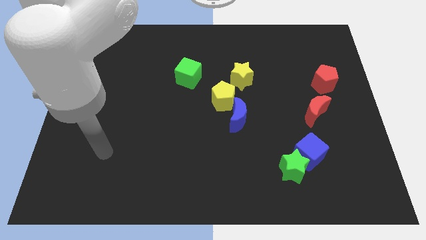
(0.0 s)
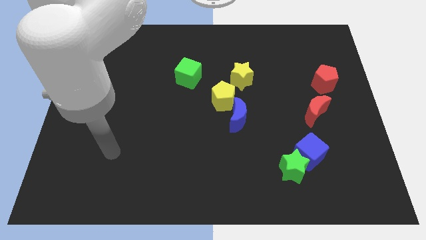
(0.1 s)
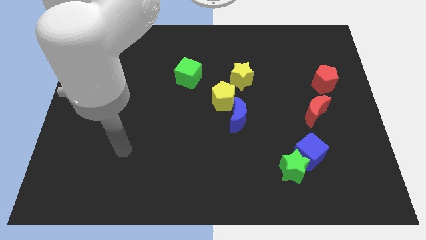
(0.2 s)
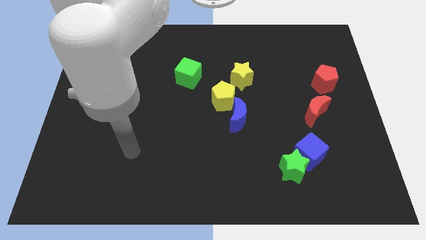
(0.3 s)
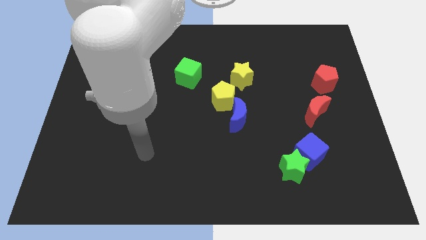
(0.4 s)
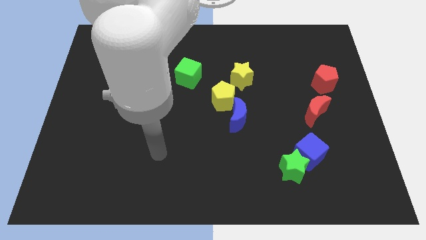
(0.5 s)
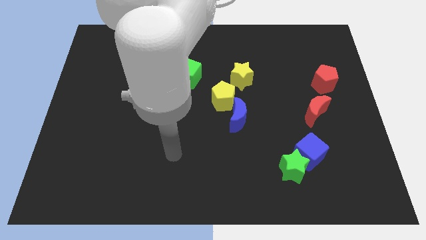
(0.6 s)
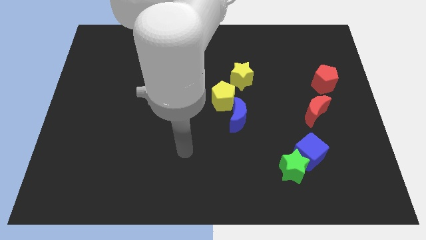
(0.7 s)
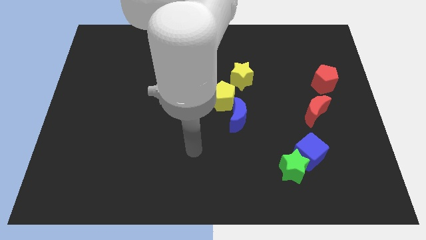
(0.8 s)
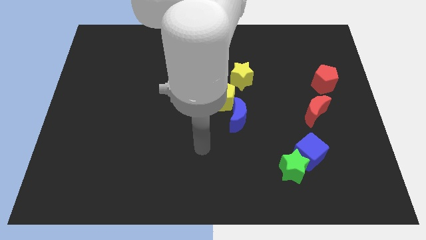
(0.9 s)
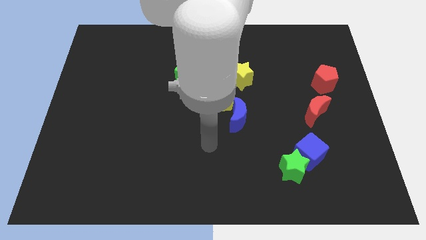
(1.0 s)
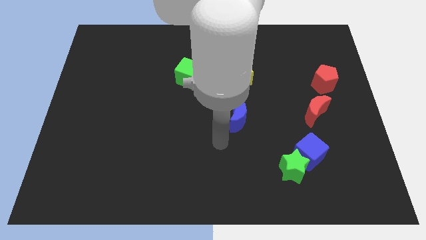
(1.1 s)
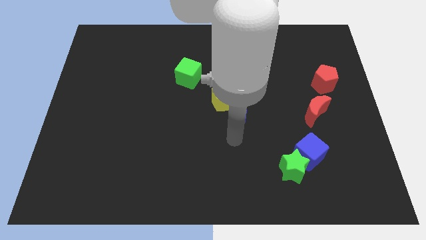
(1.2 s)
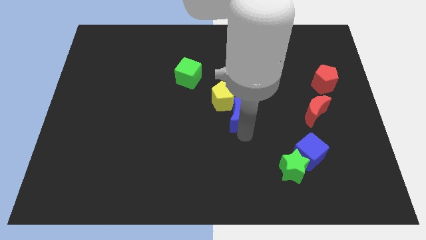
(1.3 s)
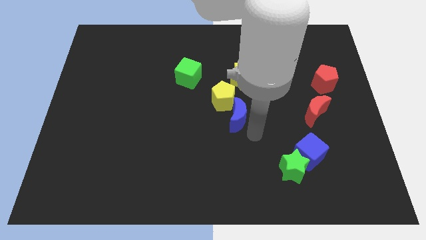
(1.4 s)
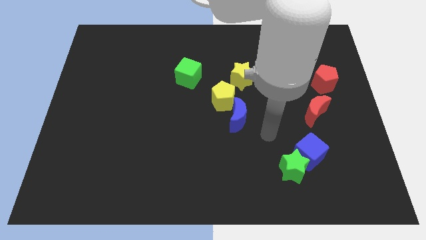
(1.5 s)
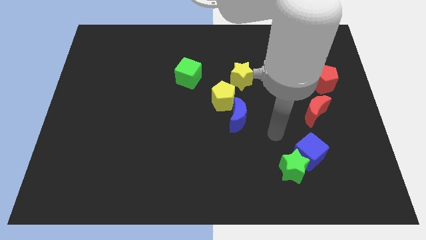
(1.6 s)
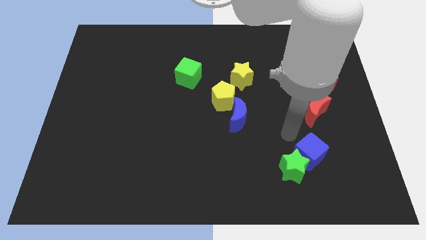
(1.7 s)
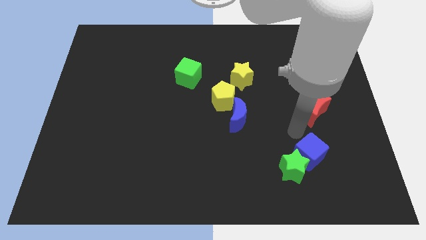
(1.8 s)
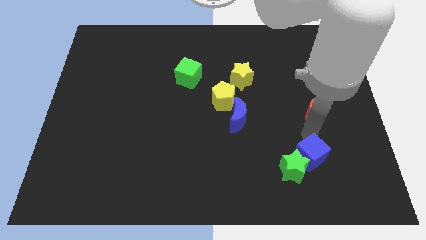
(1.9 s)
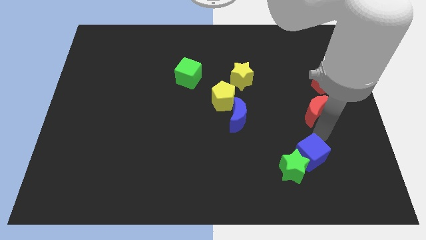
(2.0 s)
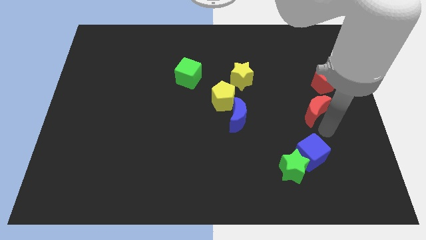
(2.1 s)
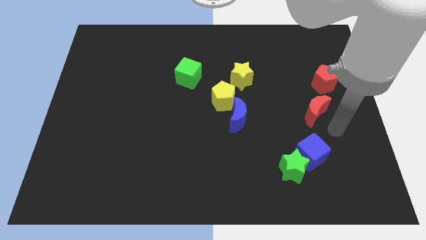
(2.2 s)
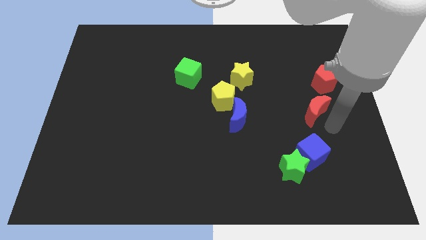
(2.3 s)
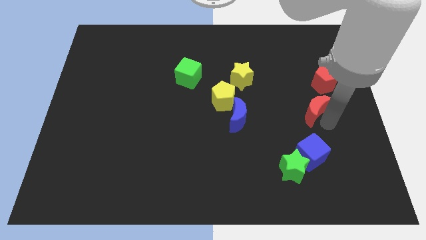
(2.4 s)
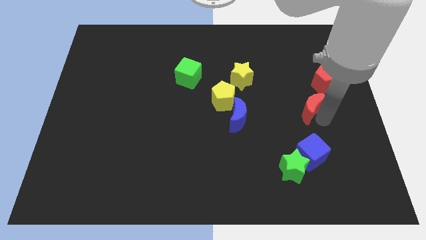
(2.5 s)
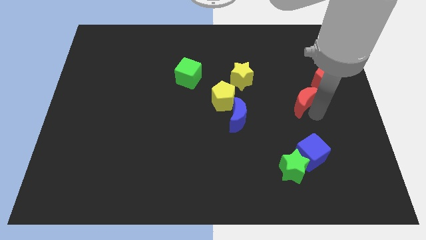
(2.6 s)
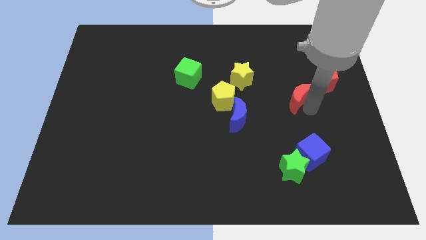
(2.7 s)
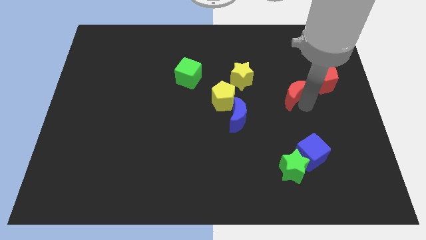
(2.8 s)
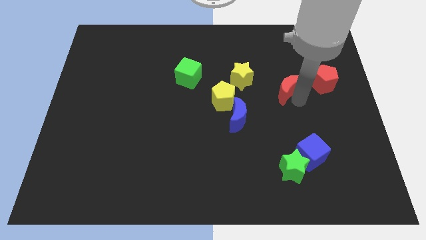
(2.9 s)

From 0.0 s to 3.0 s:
push the red moon a bit up and to the left

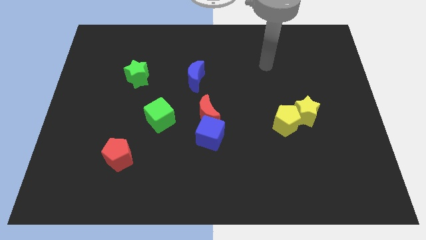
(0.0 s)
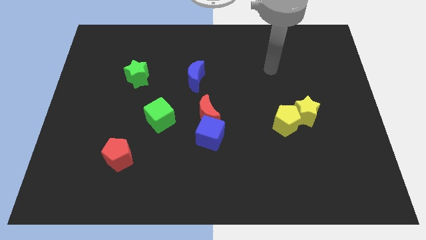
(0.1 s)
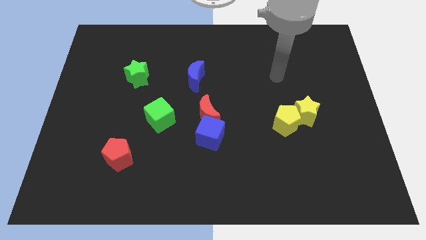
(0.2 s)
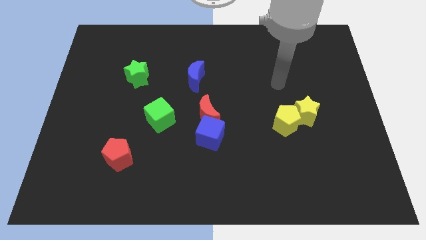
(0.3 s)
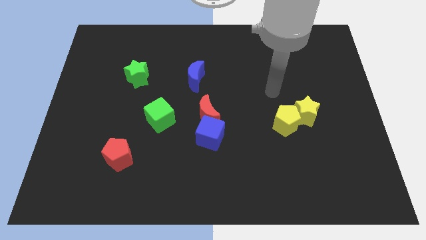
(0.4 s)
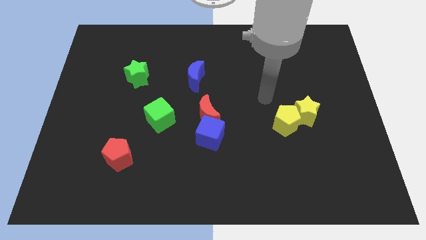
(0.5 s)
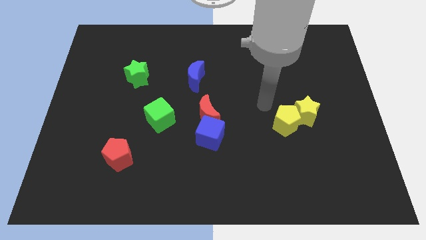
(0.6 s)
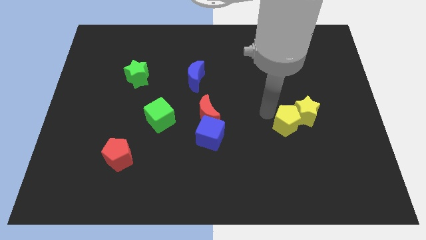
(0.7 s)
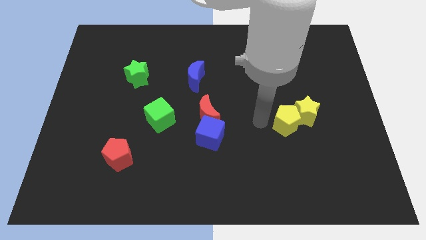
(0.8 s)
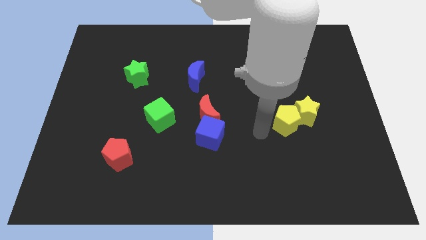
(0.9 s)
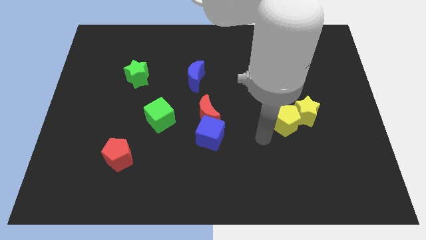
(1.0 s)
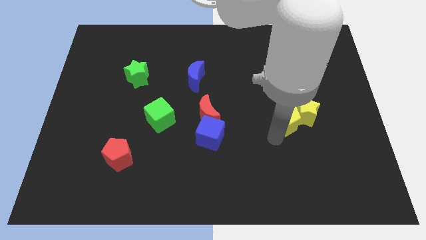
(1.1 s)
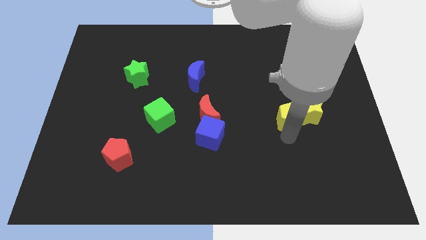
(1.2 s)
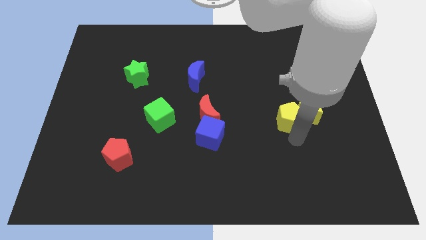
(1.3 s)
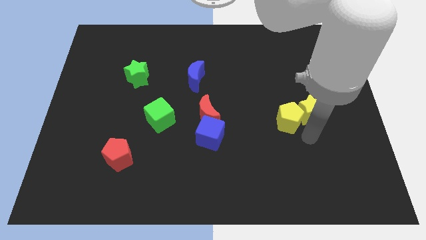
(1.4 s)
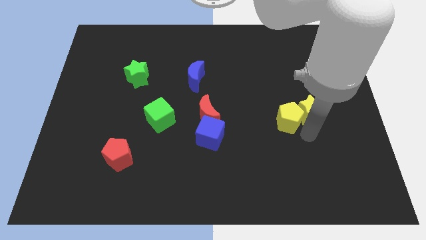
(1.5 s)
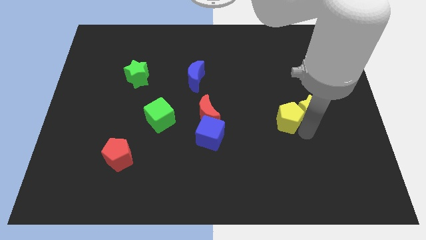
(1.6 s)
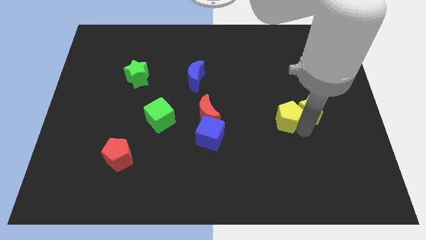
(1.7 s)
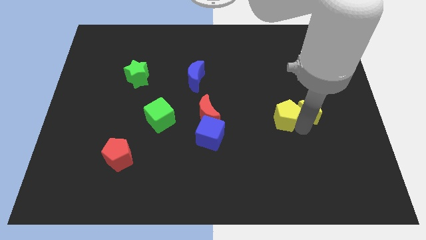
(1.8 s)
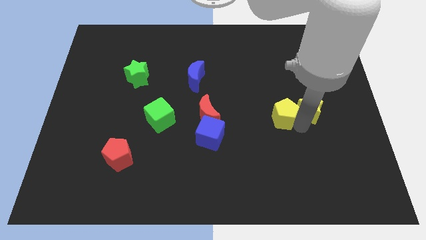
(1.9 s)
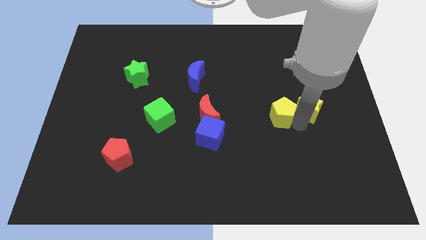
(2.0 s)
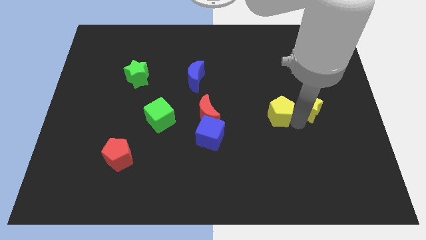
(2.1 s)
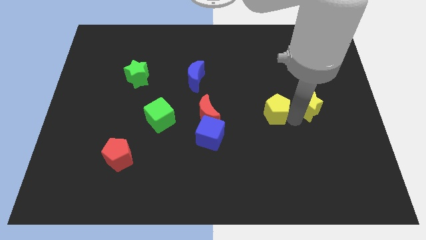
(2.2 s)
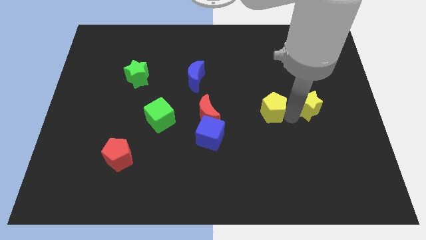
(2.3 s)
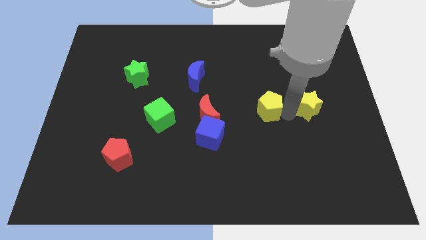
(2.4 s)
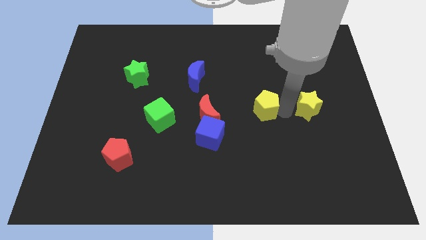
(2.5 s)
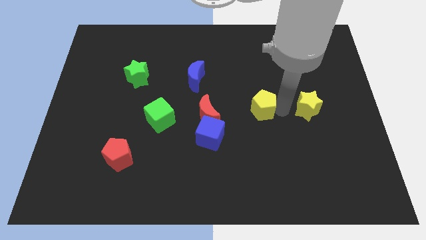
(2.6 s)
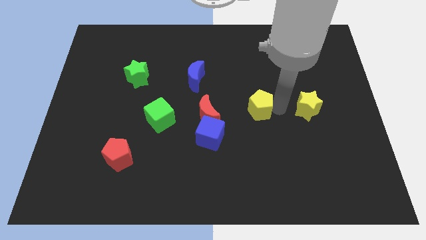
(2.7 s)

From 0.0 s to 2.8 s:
slide the yellow pentagon slightly up and to the left

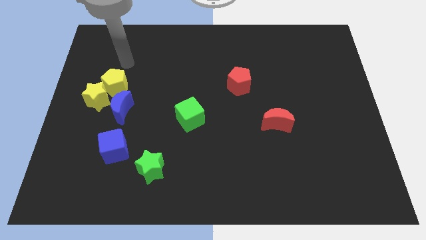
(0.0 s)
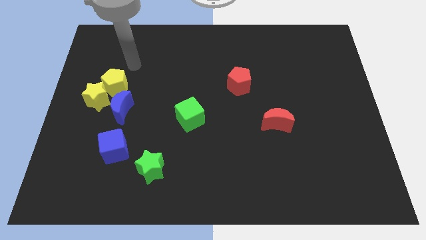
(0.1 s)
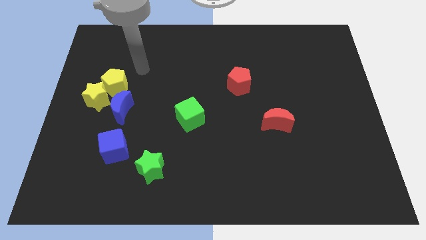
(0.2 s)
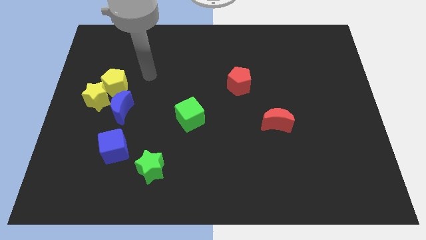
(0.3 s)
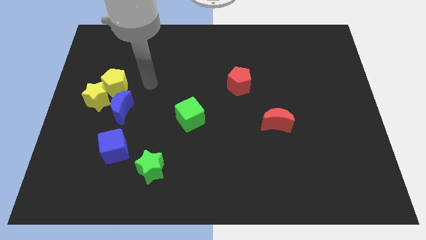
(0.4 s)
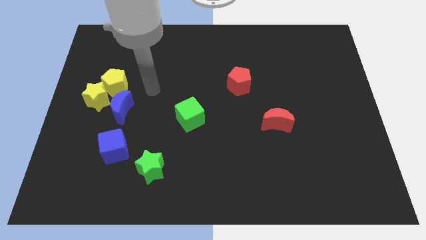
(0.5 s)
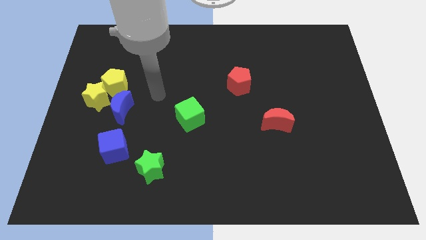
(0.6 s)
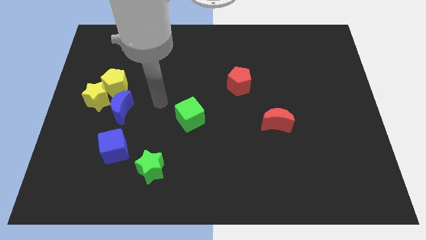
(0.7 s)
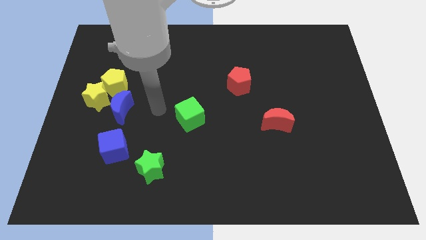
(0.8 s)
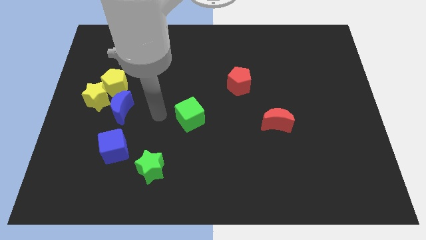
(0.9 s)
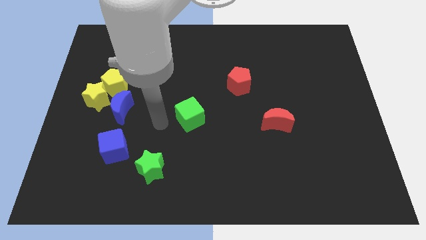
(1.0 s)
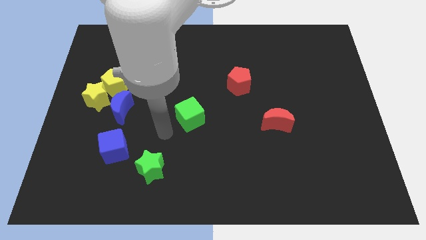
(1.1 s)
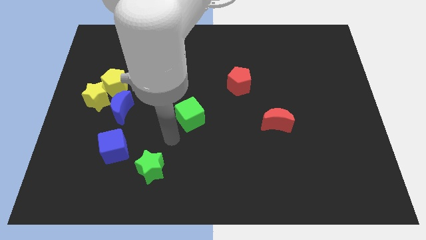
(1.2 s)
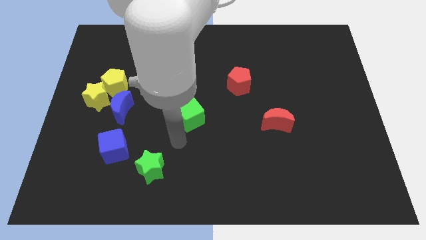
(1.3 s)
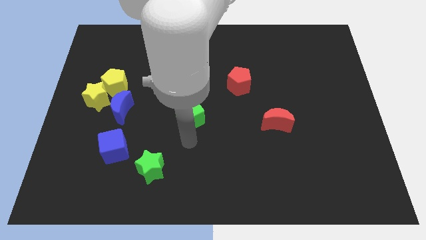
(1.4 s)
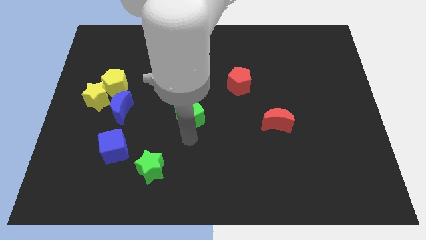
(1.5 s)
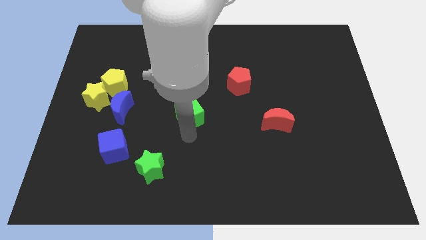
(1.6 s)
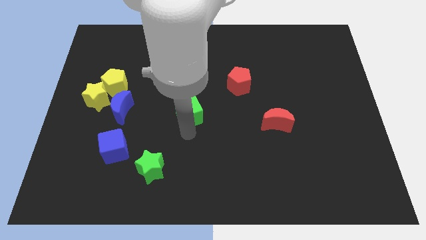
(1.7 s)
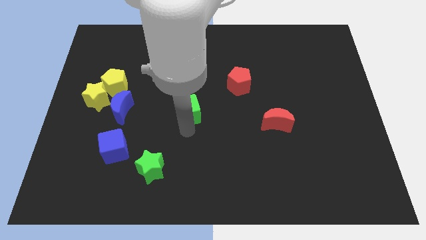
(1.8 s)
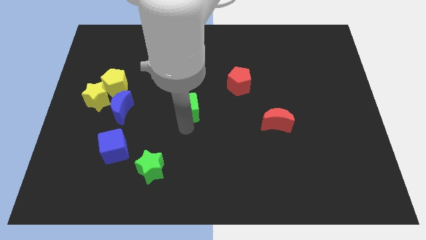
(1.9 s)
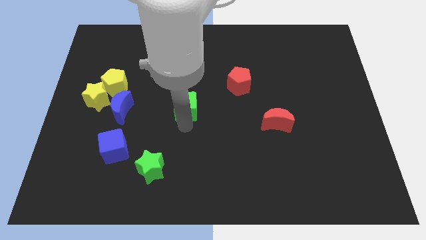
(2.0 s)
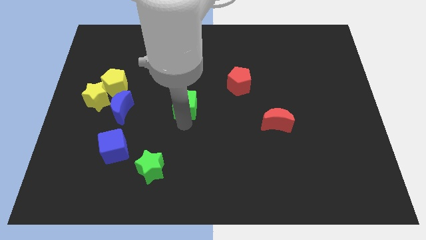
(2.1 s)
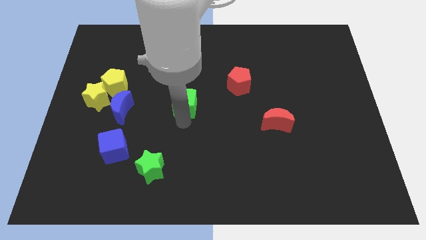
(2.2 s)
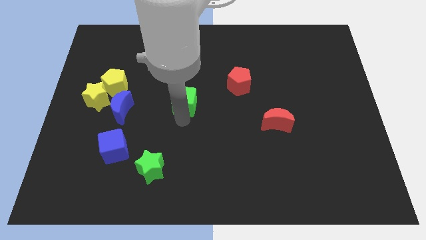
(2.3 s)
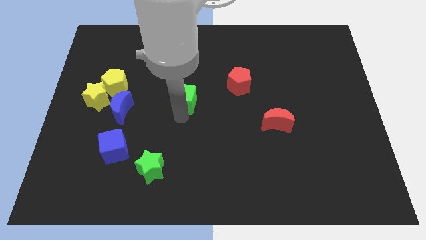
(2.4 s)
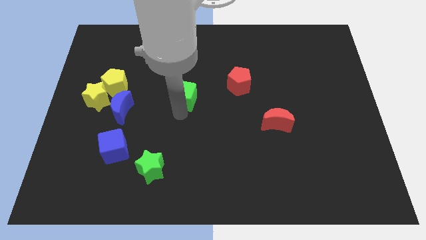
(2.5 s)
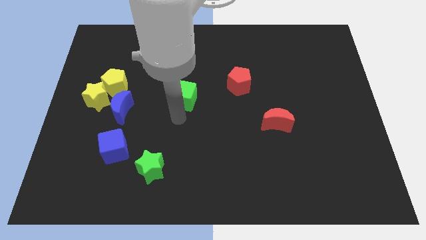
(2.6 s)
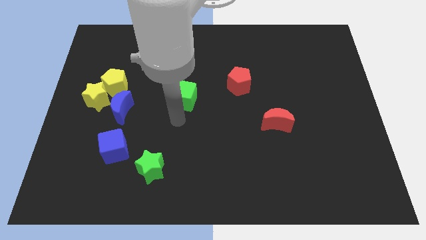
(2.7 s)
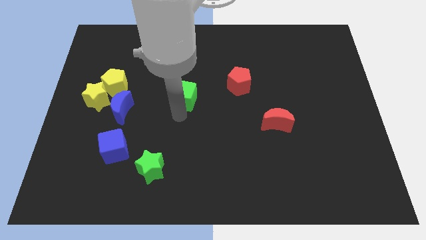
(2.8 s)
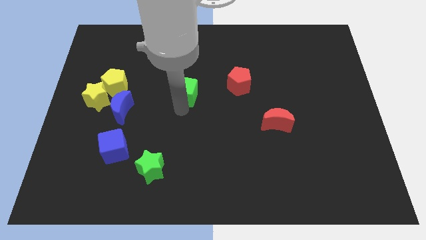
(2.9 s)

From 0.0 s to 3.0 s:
slightly push the green cube up
